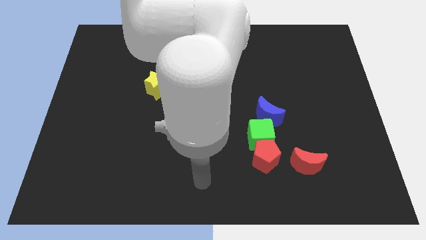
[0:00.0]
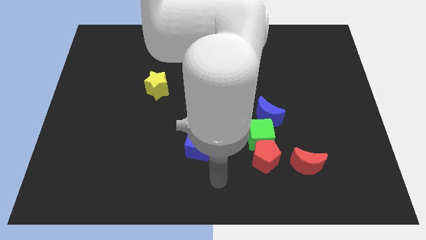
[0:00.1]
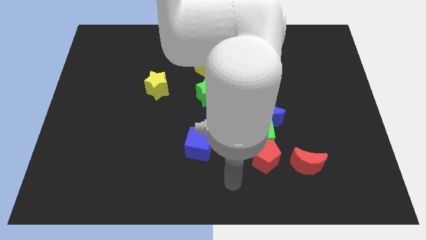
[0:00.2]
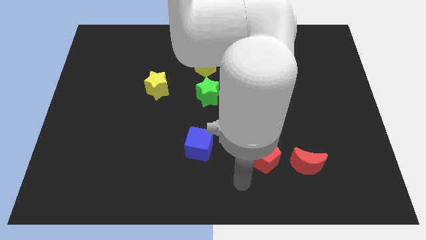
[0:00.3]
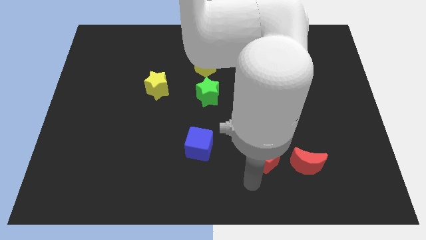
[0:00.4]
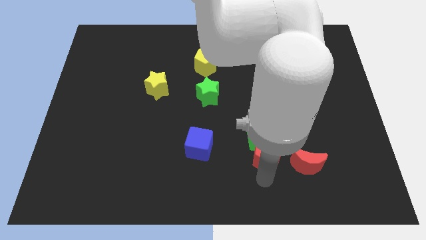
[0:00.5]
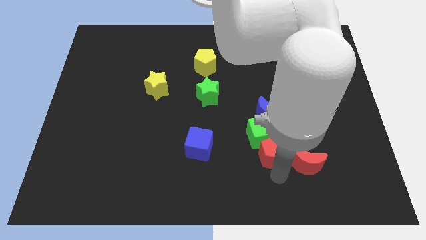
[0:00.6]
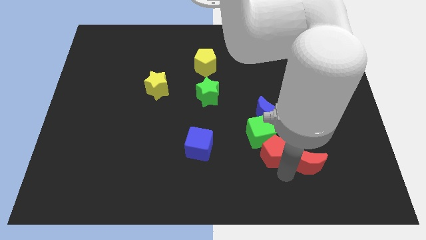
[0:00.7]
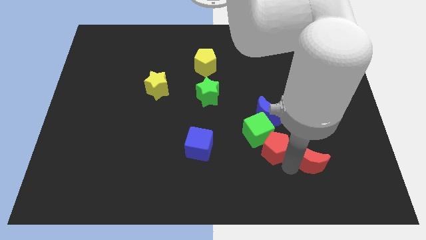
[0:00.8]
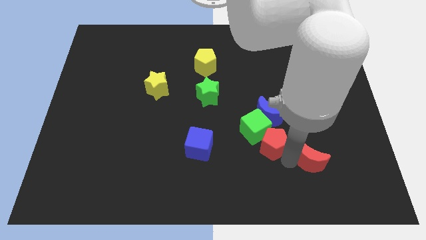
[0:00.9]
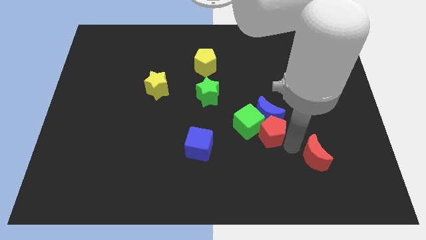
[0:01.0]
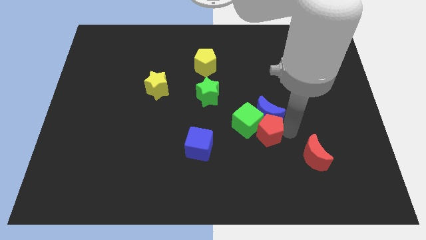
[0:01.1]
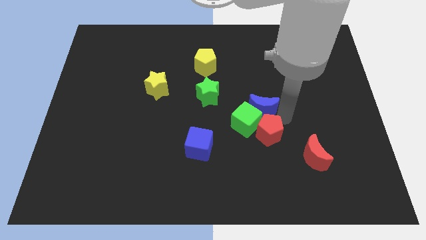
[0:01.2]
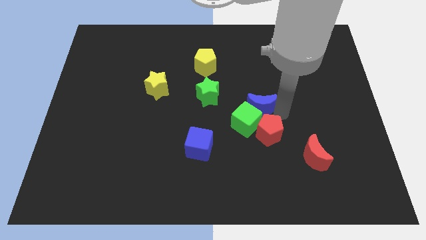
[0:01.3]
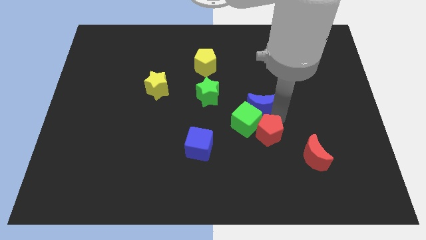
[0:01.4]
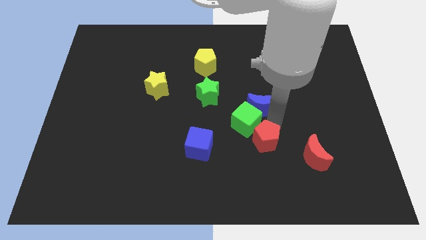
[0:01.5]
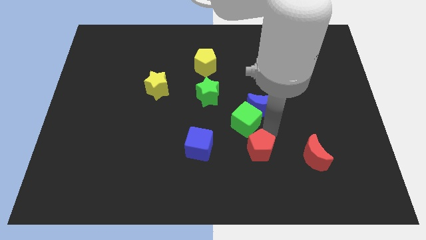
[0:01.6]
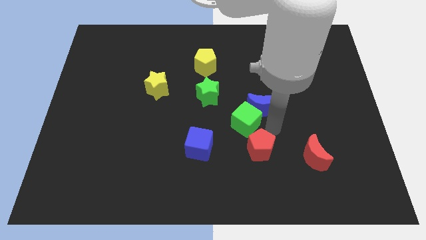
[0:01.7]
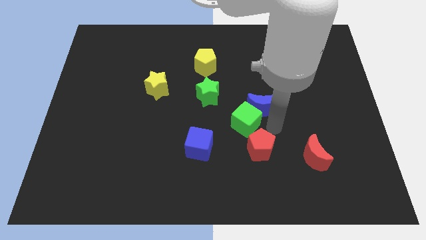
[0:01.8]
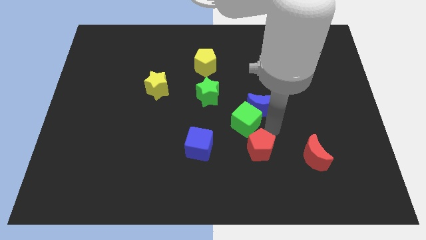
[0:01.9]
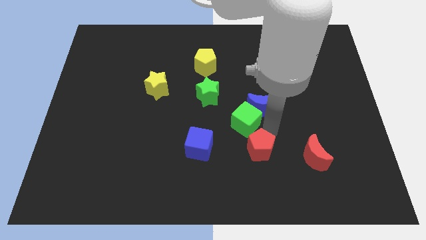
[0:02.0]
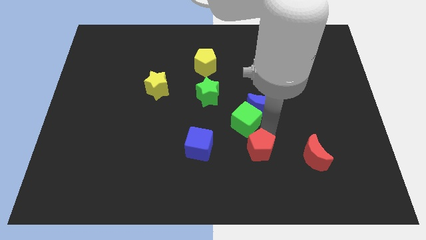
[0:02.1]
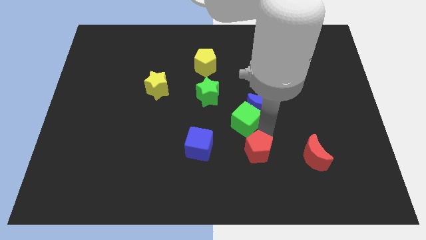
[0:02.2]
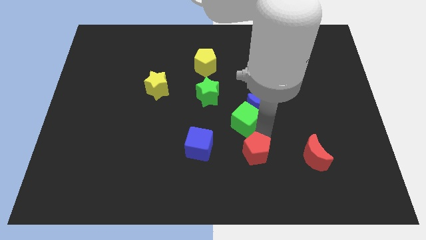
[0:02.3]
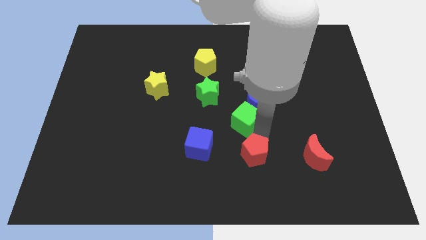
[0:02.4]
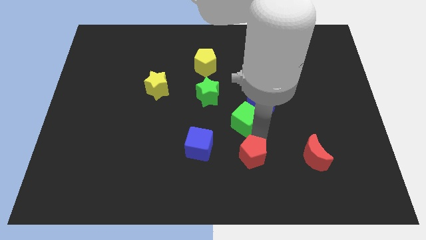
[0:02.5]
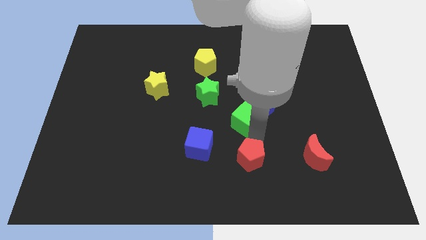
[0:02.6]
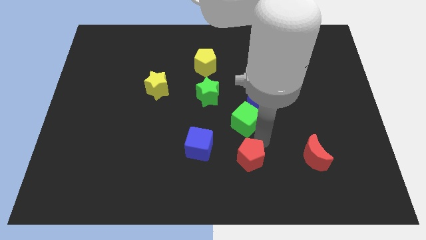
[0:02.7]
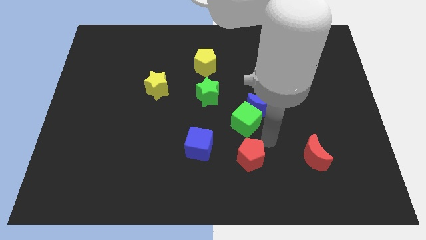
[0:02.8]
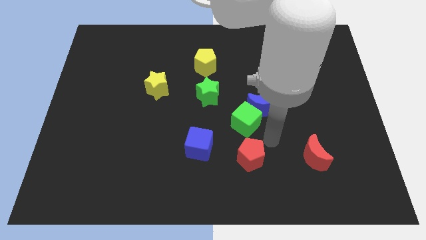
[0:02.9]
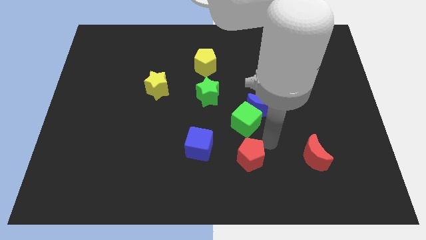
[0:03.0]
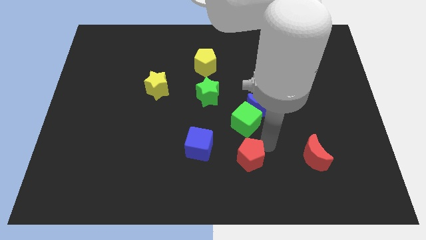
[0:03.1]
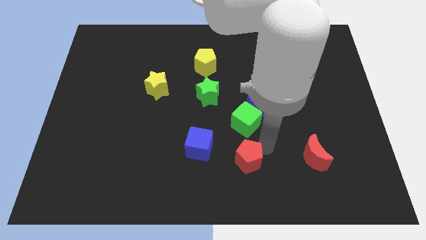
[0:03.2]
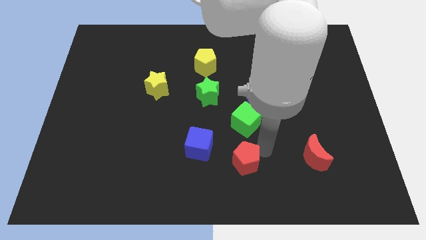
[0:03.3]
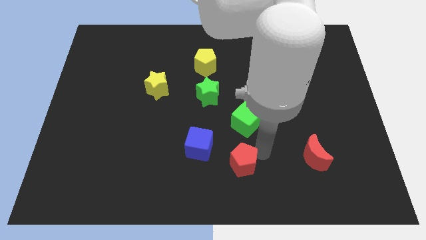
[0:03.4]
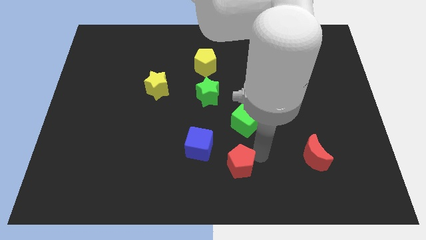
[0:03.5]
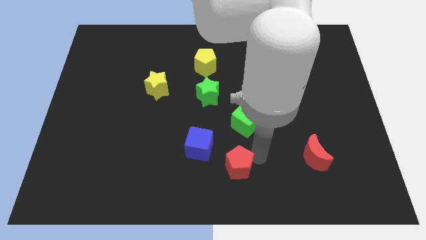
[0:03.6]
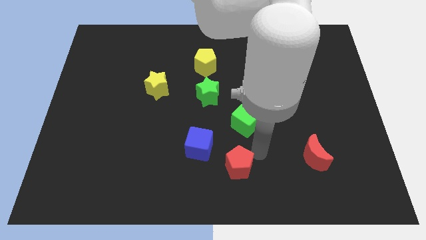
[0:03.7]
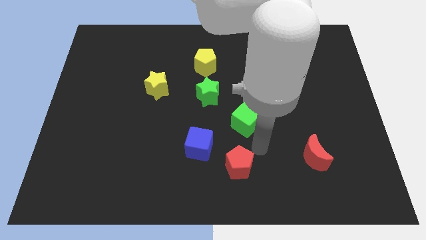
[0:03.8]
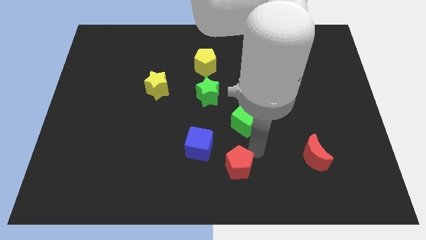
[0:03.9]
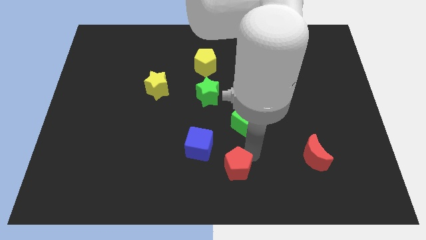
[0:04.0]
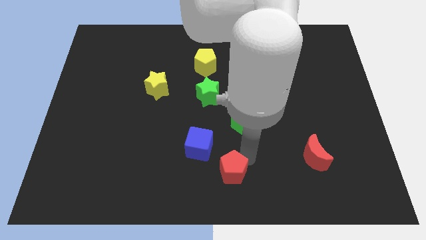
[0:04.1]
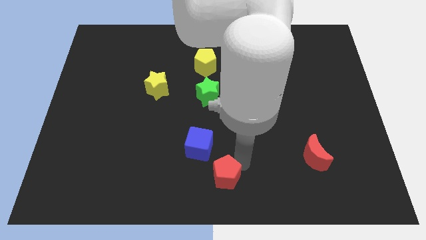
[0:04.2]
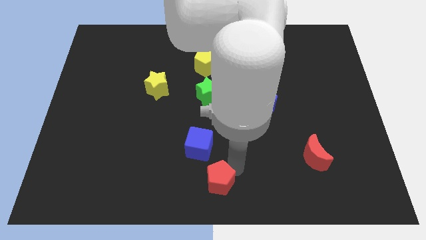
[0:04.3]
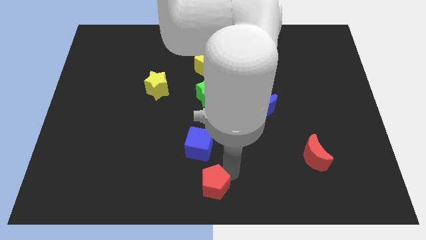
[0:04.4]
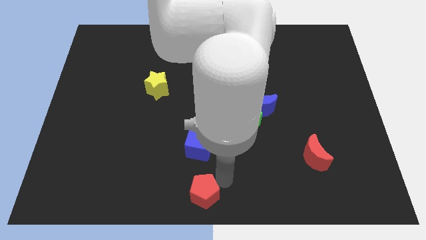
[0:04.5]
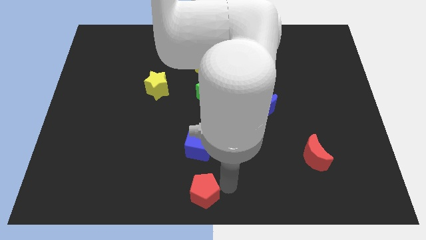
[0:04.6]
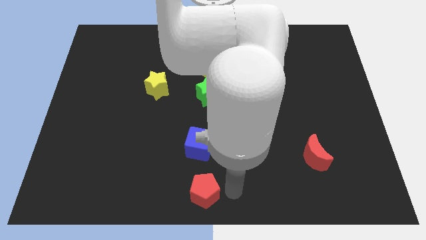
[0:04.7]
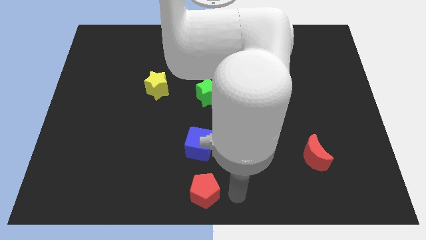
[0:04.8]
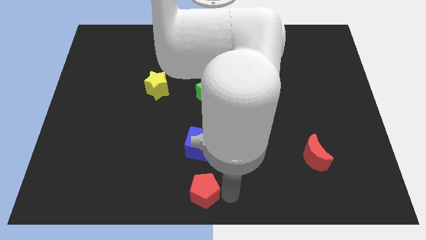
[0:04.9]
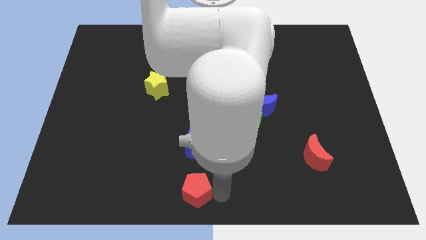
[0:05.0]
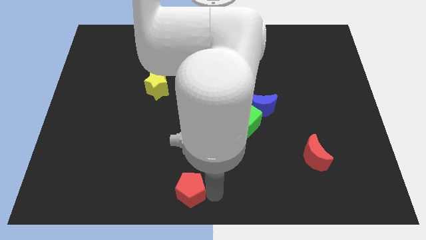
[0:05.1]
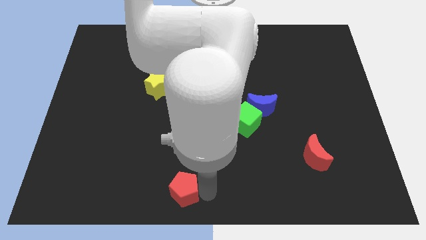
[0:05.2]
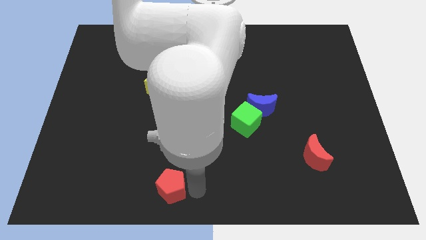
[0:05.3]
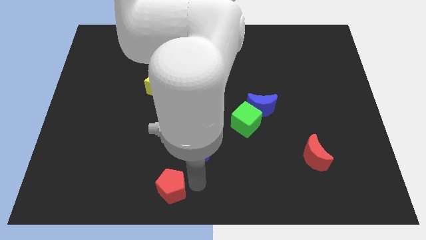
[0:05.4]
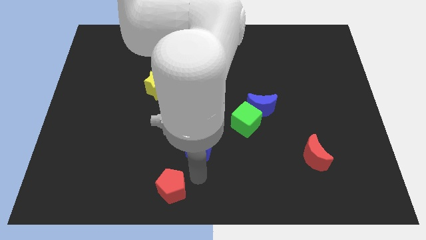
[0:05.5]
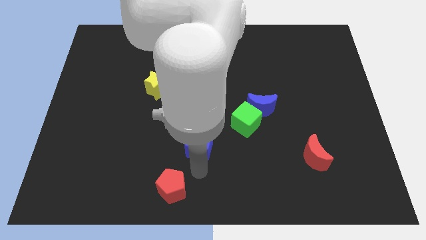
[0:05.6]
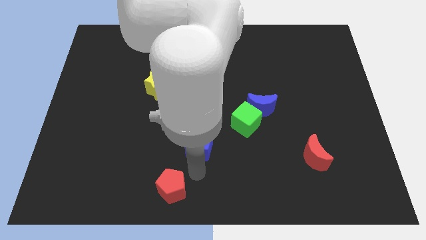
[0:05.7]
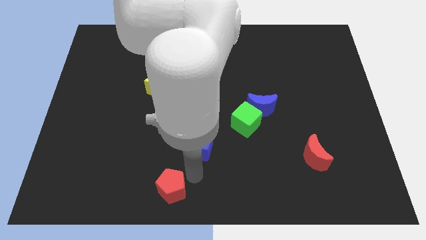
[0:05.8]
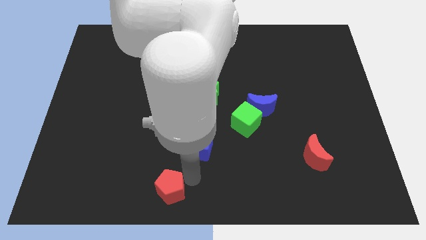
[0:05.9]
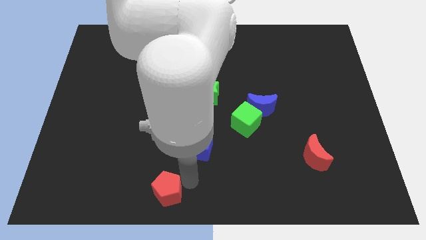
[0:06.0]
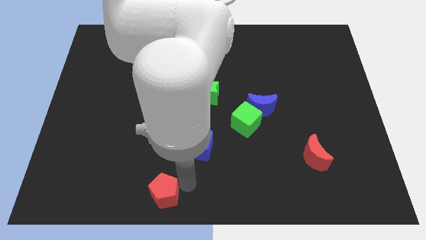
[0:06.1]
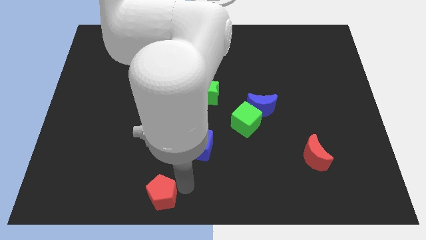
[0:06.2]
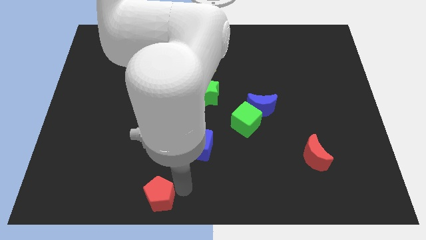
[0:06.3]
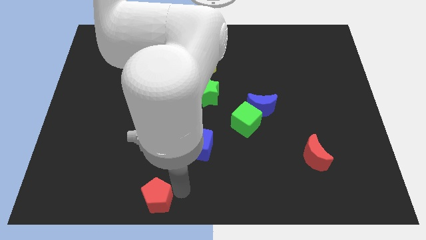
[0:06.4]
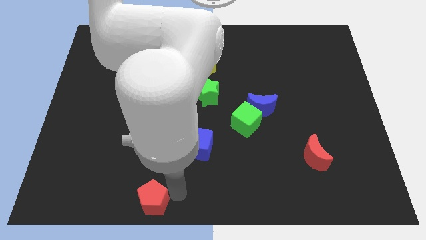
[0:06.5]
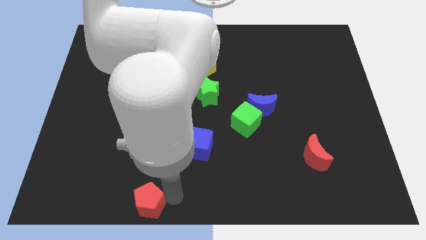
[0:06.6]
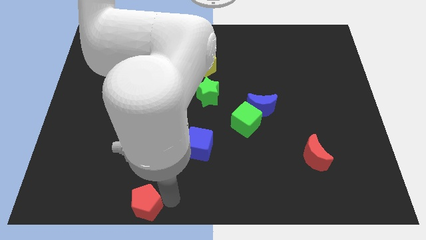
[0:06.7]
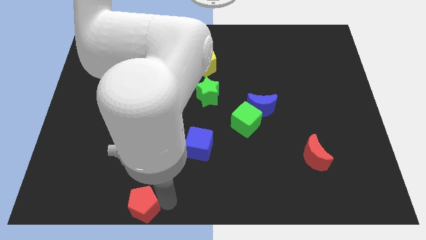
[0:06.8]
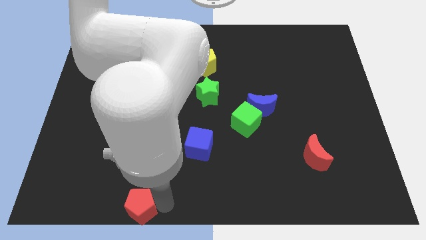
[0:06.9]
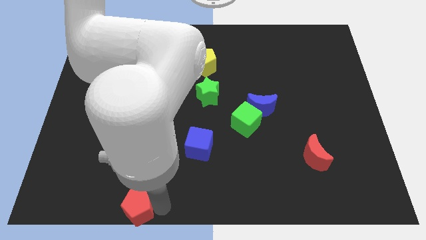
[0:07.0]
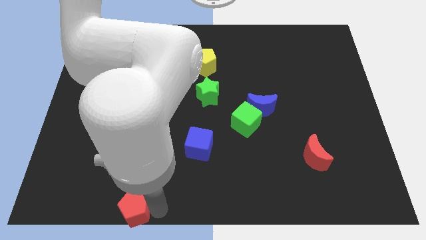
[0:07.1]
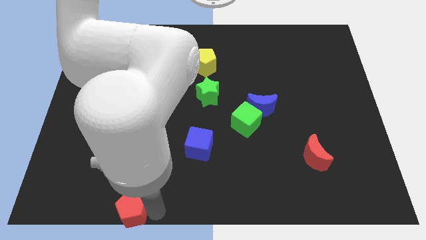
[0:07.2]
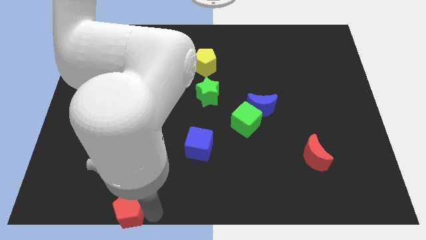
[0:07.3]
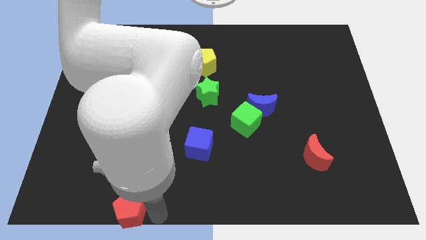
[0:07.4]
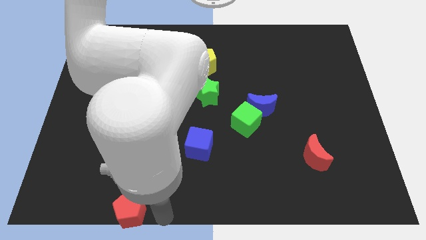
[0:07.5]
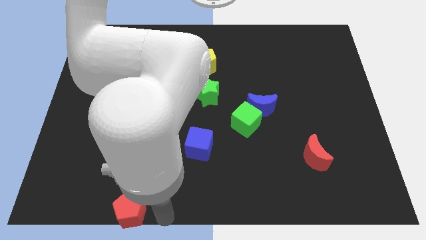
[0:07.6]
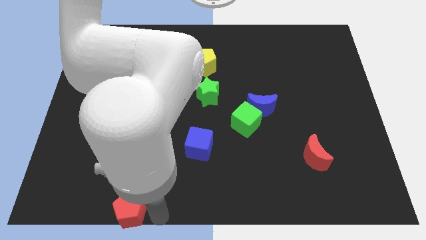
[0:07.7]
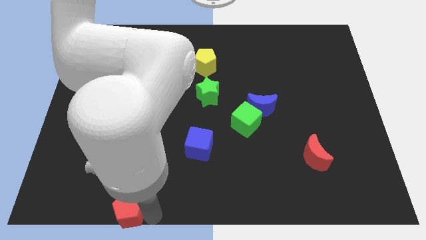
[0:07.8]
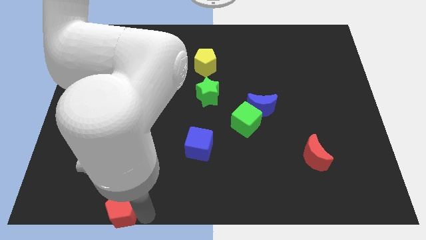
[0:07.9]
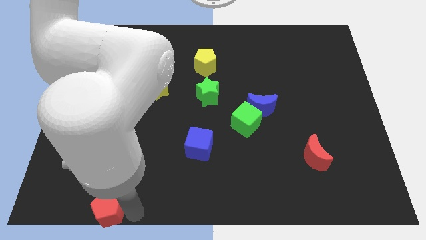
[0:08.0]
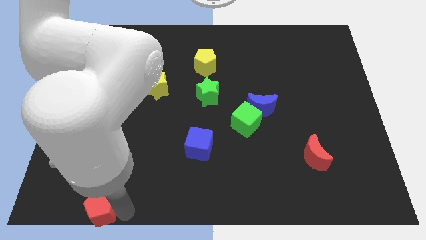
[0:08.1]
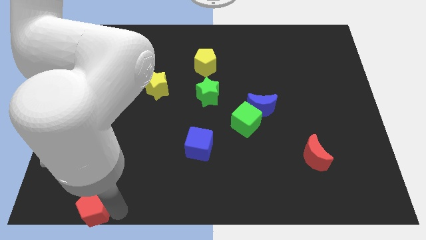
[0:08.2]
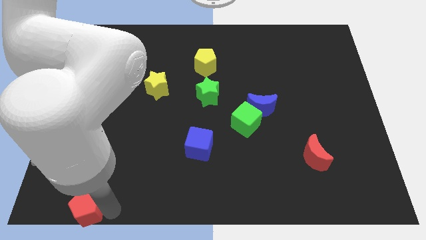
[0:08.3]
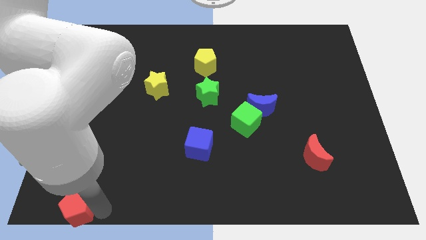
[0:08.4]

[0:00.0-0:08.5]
slide the red pentagon to the lower left corner
